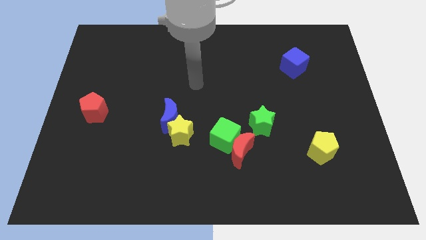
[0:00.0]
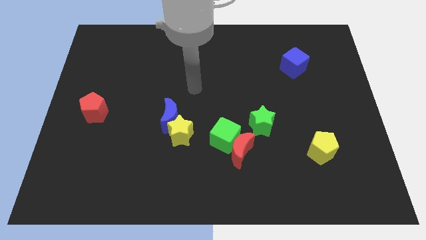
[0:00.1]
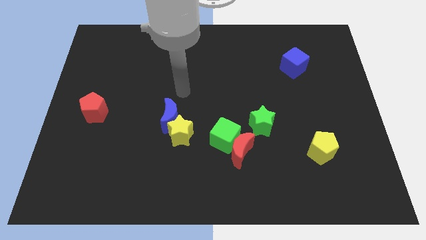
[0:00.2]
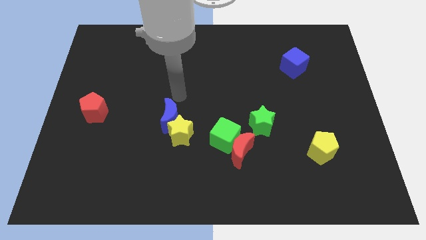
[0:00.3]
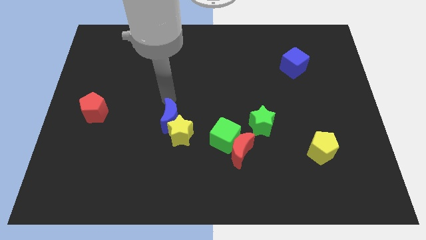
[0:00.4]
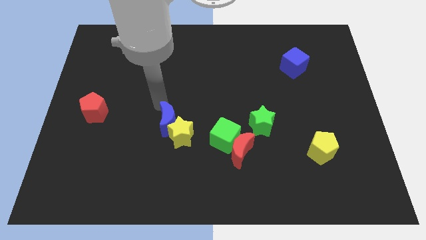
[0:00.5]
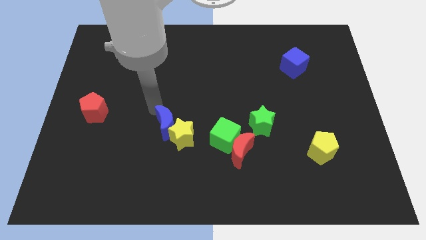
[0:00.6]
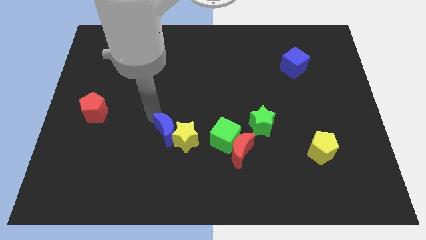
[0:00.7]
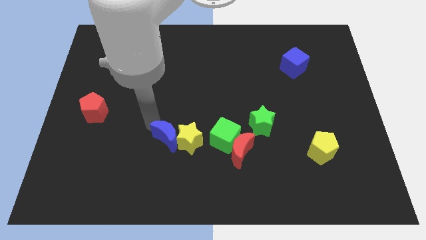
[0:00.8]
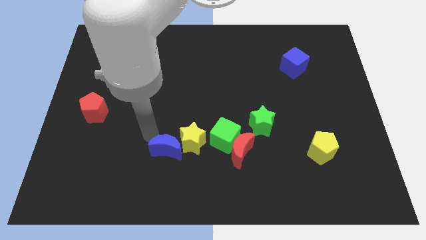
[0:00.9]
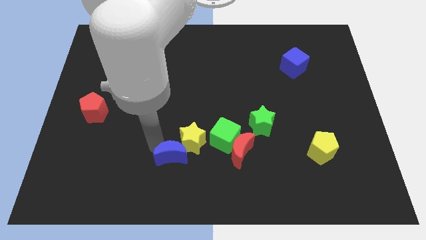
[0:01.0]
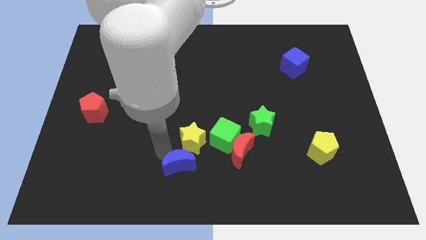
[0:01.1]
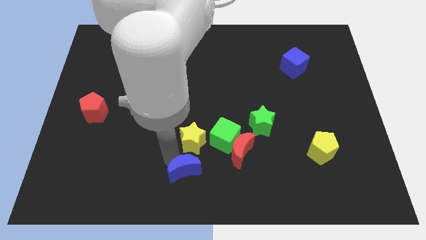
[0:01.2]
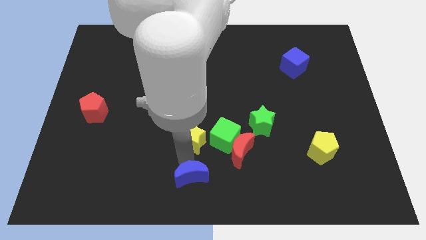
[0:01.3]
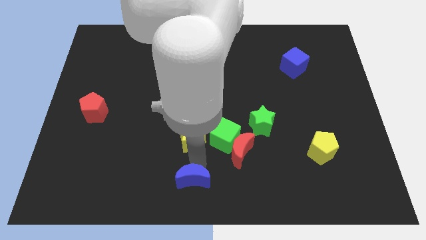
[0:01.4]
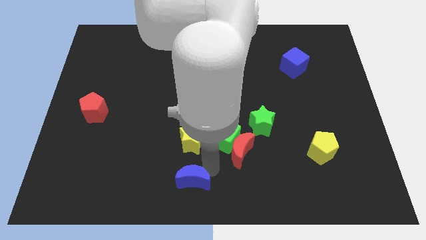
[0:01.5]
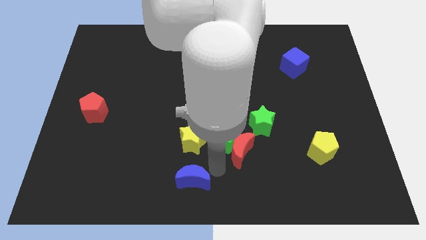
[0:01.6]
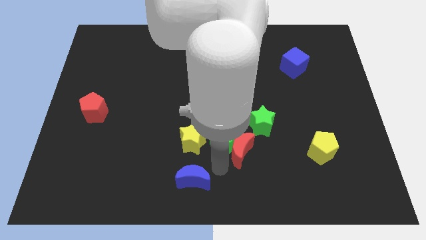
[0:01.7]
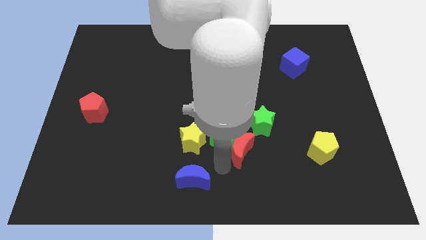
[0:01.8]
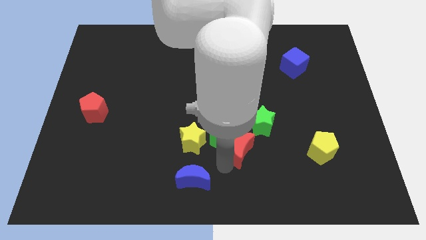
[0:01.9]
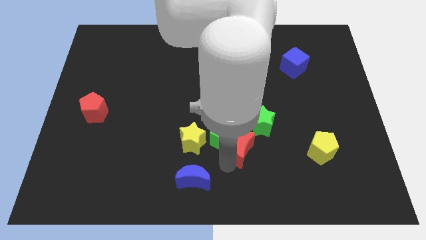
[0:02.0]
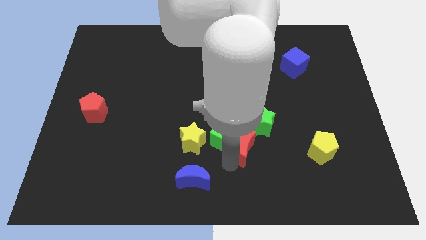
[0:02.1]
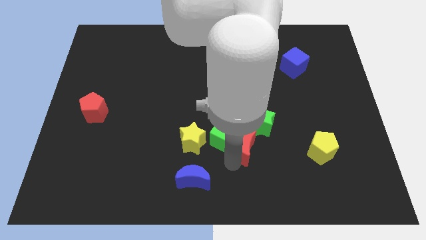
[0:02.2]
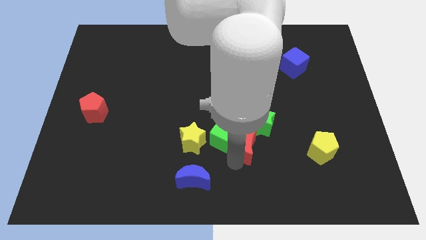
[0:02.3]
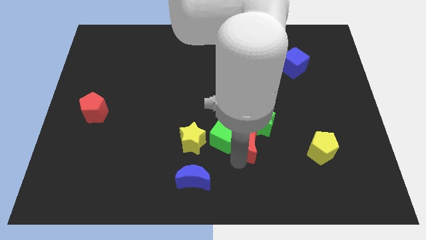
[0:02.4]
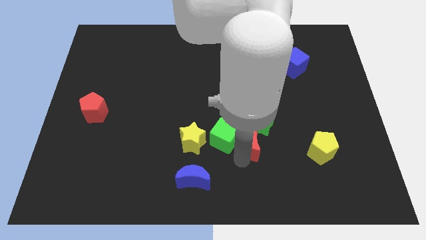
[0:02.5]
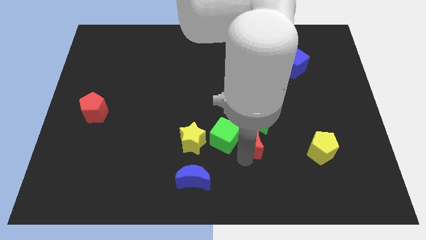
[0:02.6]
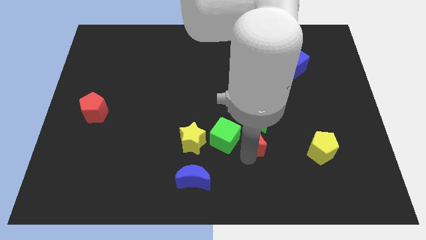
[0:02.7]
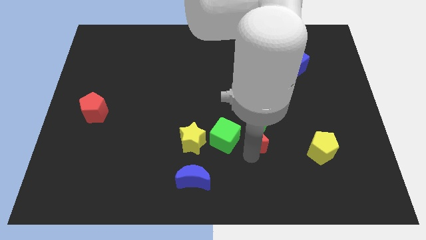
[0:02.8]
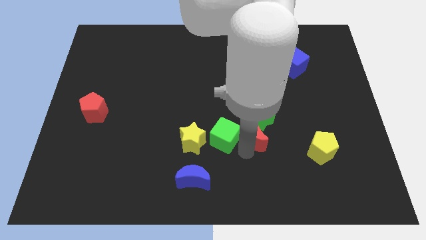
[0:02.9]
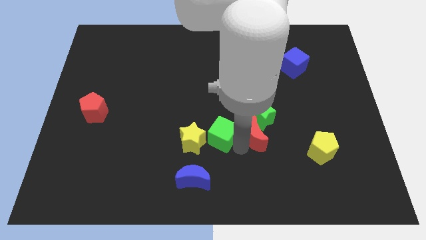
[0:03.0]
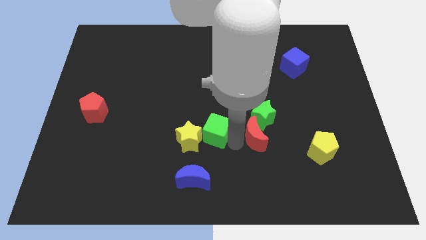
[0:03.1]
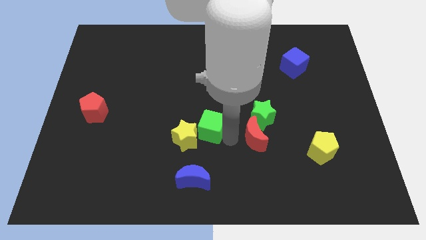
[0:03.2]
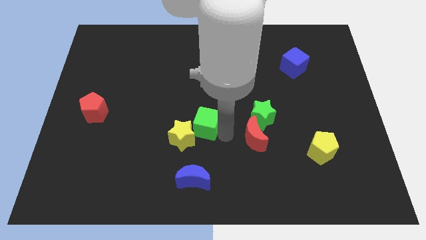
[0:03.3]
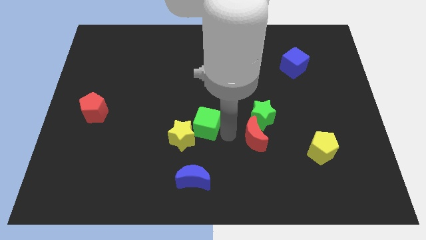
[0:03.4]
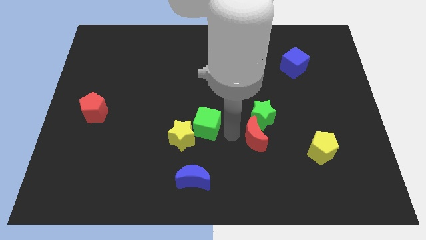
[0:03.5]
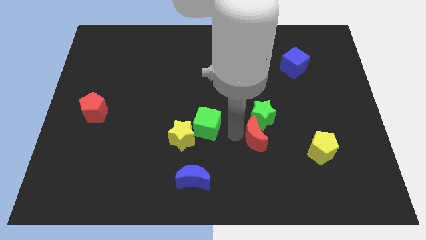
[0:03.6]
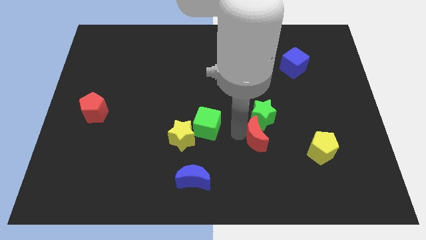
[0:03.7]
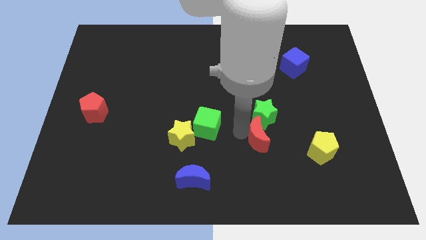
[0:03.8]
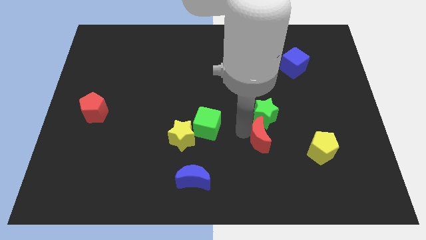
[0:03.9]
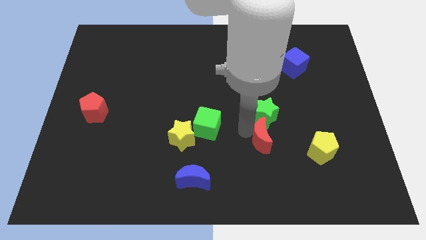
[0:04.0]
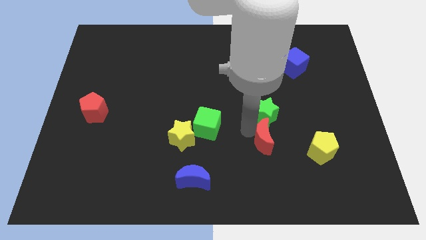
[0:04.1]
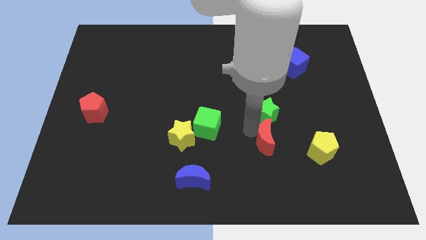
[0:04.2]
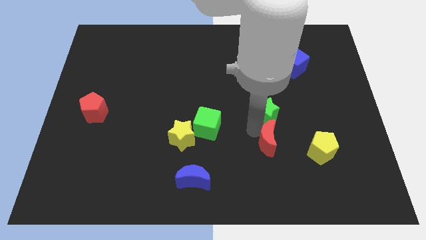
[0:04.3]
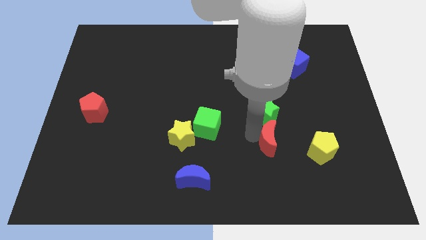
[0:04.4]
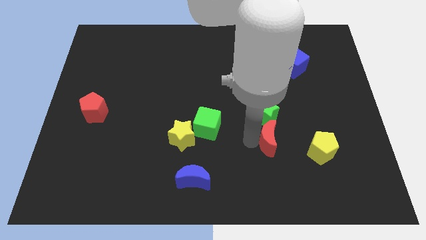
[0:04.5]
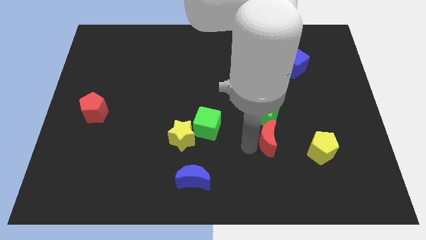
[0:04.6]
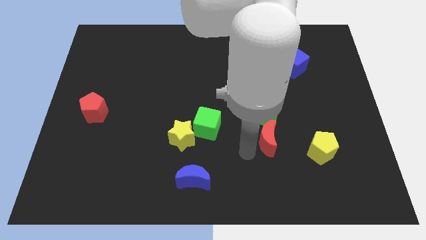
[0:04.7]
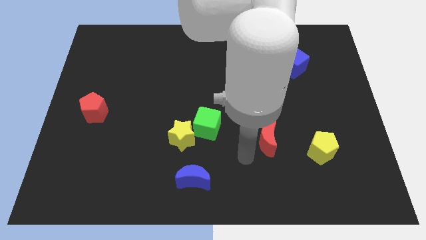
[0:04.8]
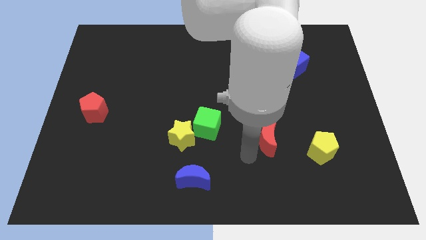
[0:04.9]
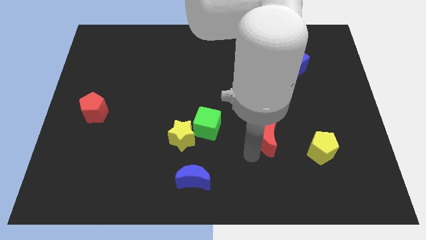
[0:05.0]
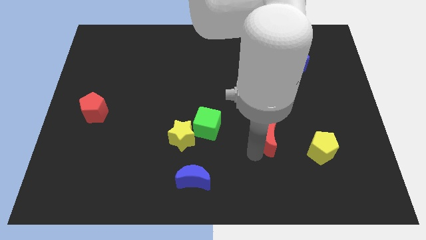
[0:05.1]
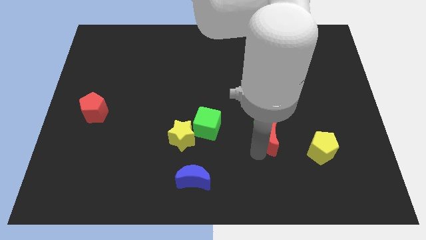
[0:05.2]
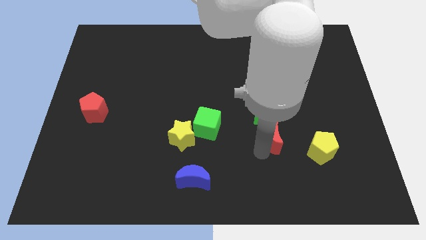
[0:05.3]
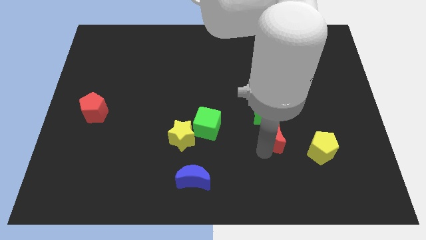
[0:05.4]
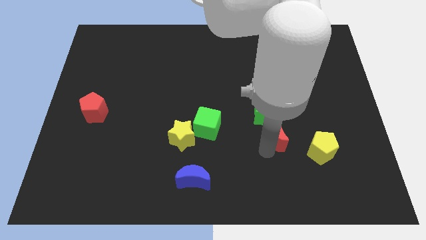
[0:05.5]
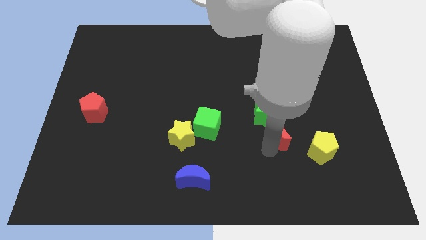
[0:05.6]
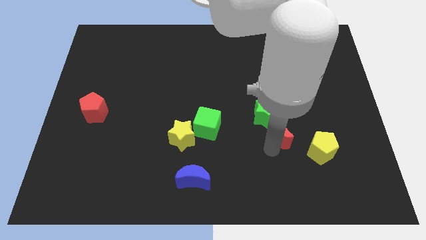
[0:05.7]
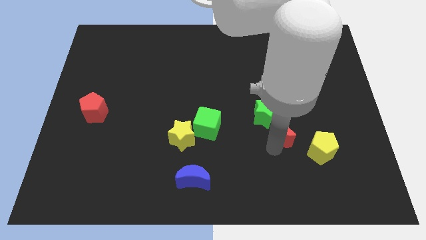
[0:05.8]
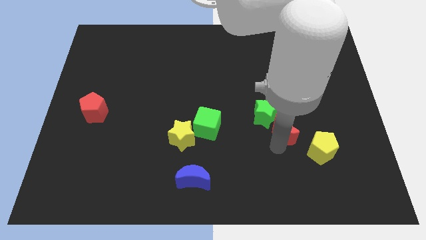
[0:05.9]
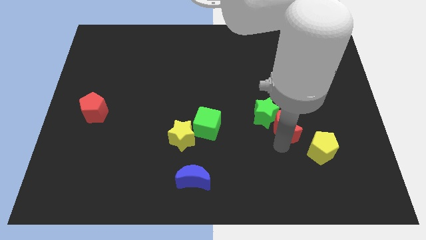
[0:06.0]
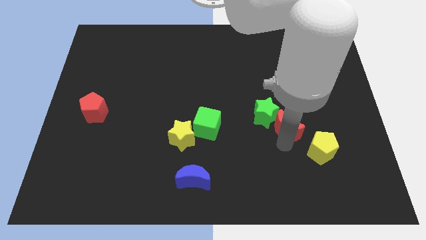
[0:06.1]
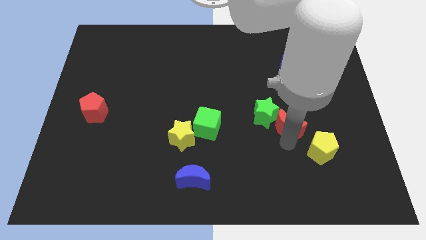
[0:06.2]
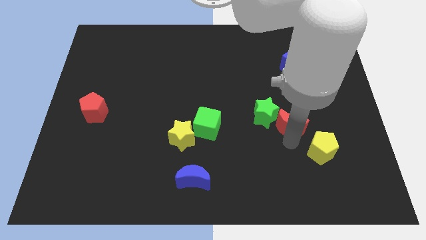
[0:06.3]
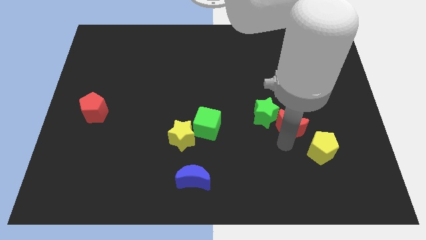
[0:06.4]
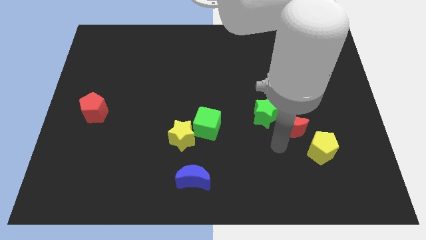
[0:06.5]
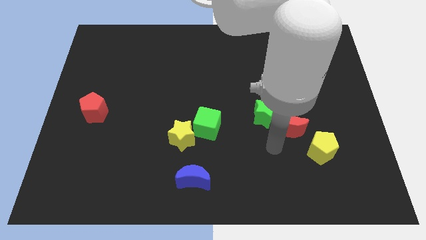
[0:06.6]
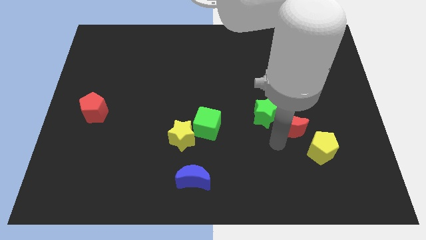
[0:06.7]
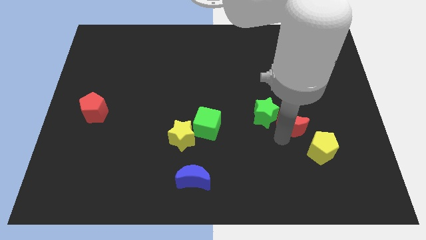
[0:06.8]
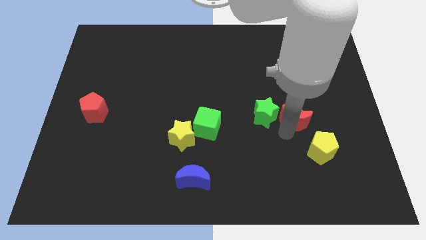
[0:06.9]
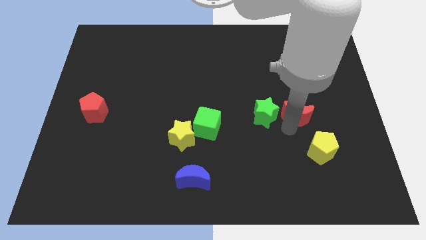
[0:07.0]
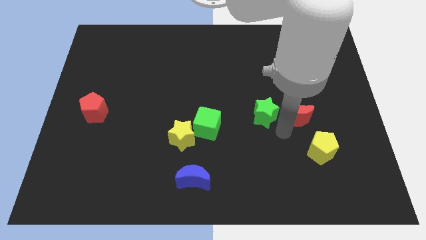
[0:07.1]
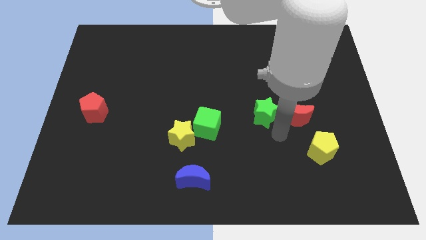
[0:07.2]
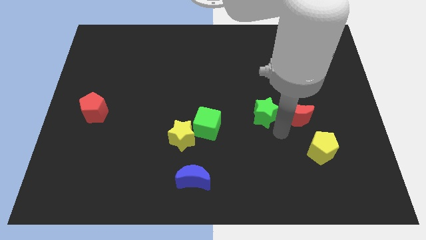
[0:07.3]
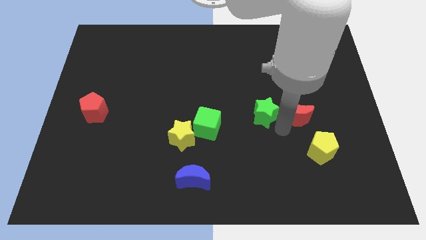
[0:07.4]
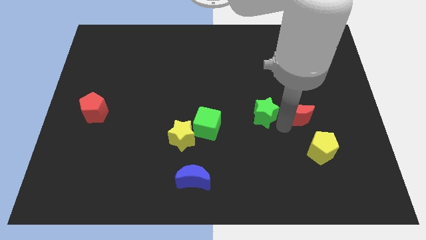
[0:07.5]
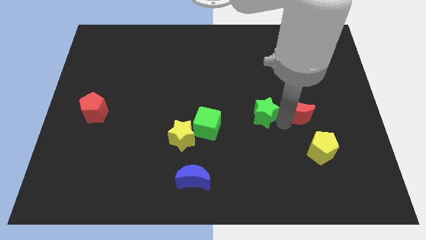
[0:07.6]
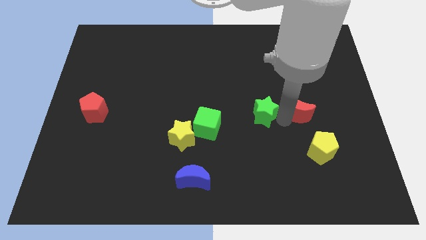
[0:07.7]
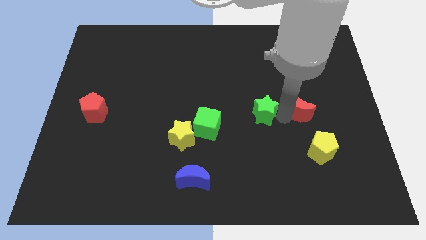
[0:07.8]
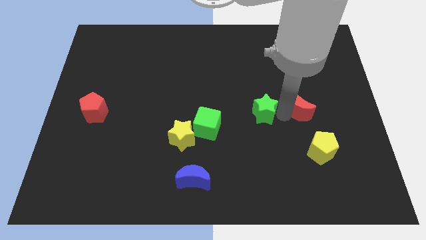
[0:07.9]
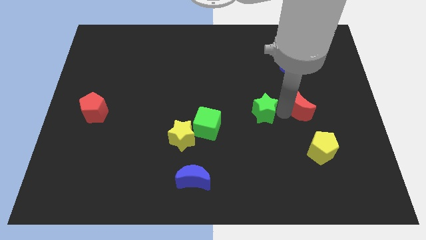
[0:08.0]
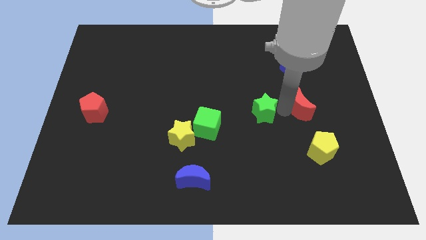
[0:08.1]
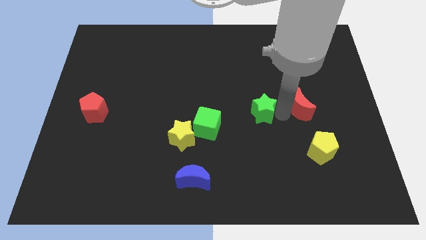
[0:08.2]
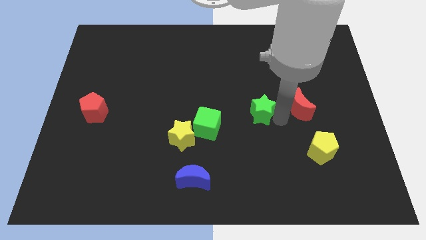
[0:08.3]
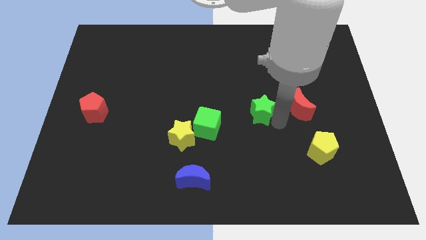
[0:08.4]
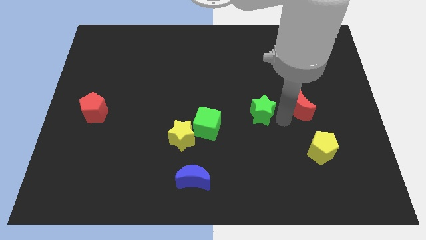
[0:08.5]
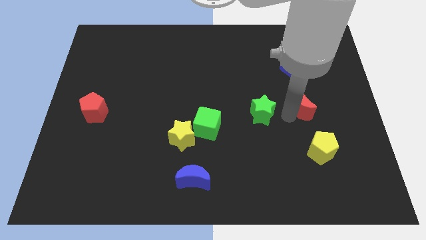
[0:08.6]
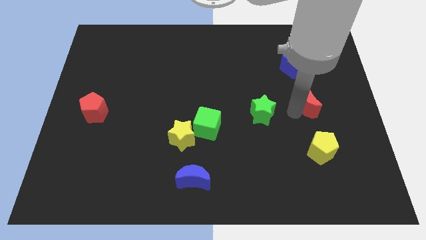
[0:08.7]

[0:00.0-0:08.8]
move the red moon up and to the right
